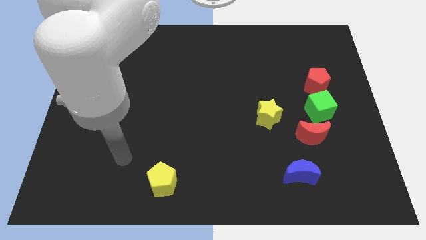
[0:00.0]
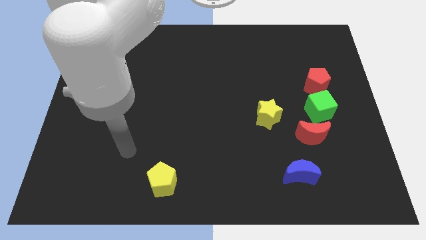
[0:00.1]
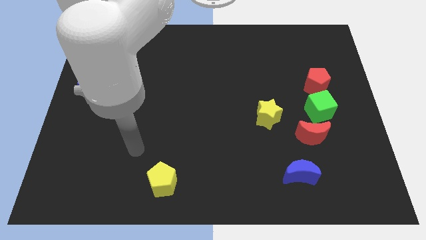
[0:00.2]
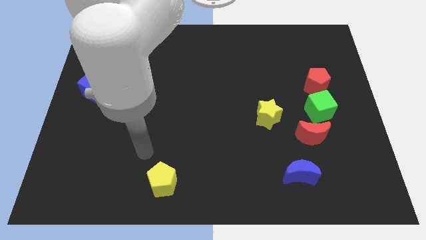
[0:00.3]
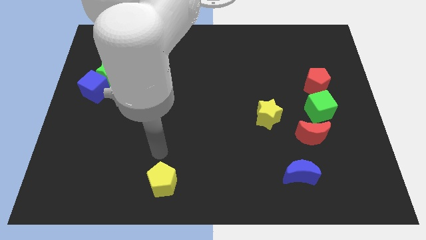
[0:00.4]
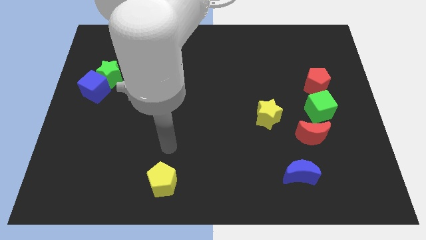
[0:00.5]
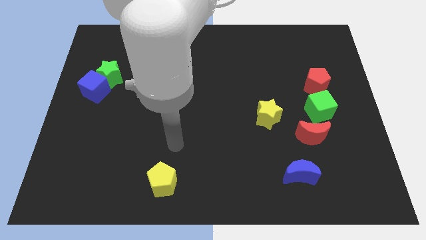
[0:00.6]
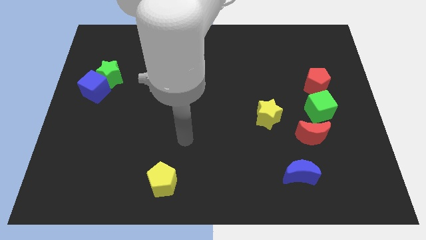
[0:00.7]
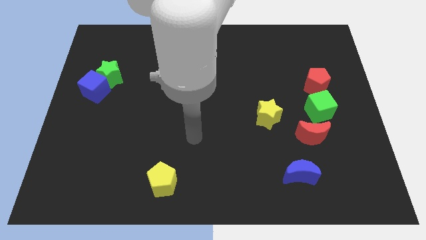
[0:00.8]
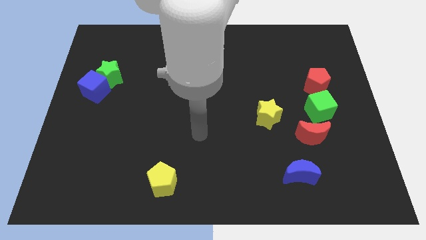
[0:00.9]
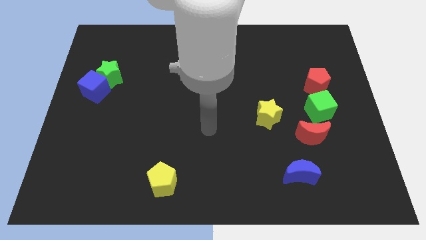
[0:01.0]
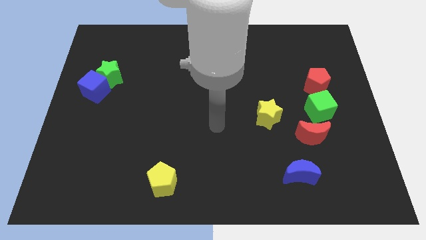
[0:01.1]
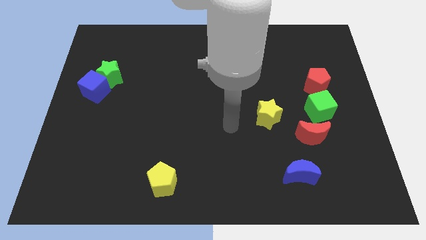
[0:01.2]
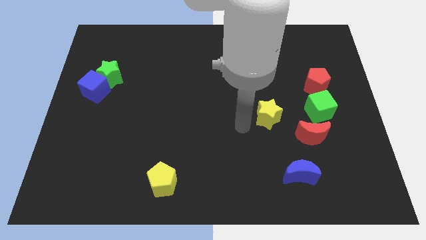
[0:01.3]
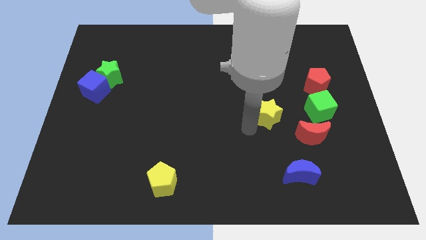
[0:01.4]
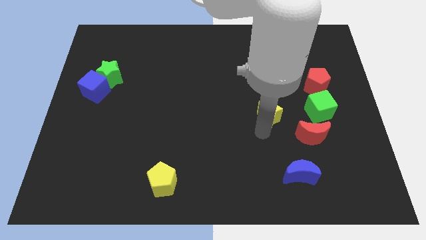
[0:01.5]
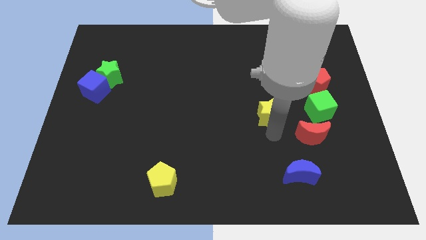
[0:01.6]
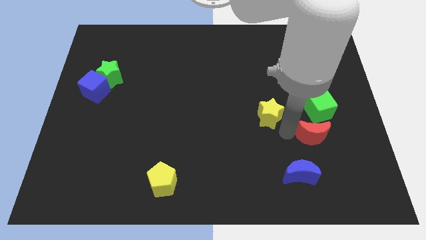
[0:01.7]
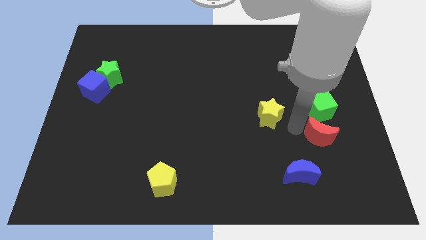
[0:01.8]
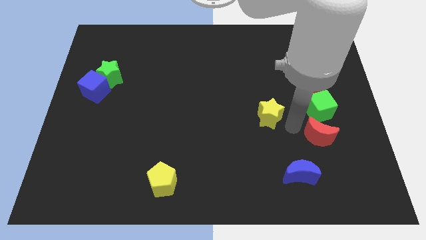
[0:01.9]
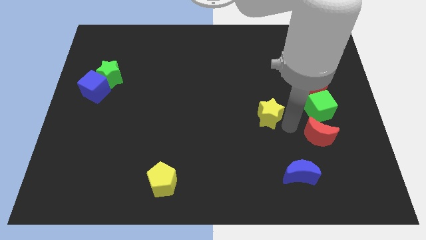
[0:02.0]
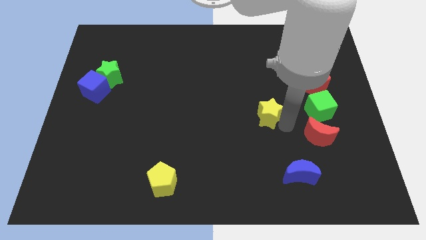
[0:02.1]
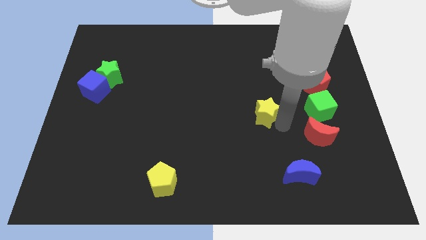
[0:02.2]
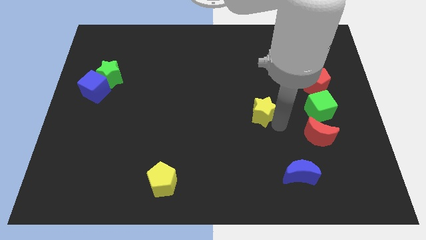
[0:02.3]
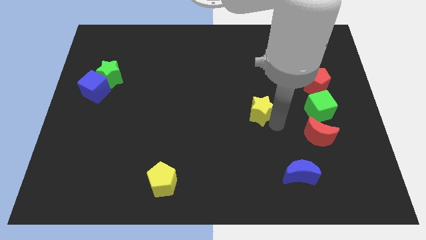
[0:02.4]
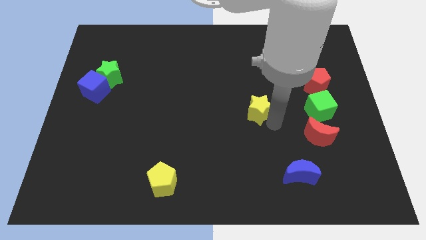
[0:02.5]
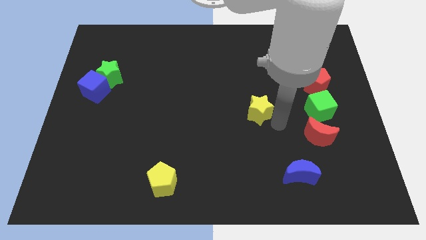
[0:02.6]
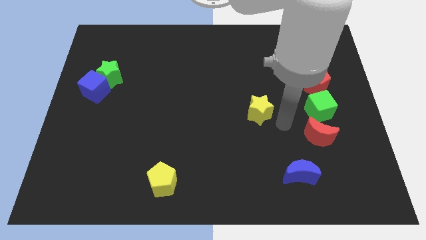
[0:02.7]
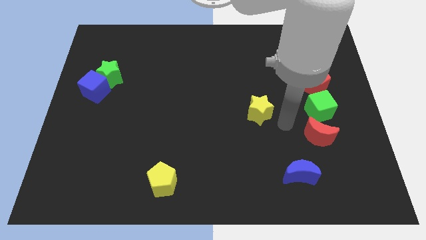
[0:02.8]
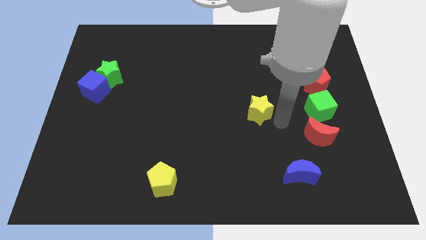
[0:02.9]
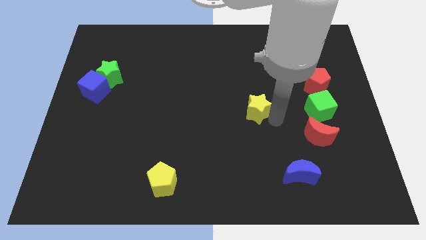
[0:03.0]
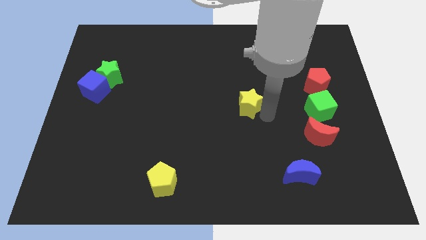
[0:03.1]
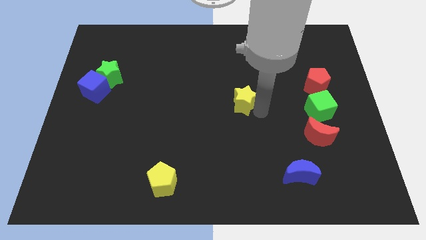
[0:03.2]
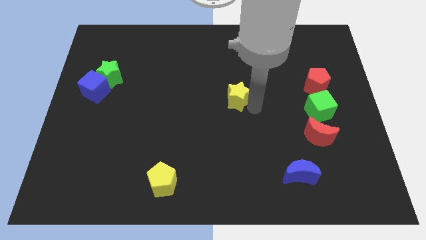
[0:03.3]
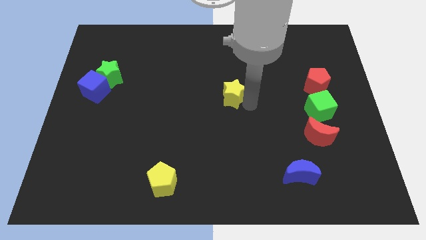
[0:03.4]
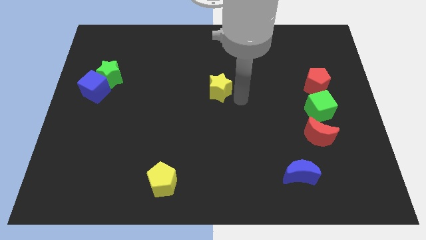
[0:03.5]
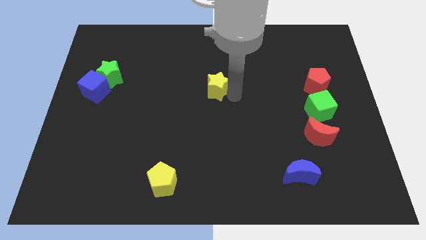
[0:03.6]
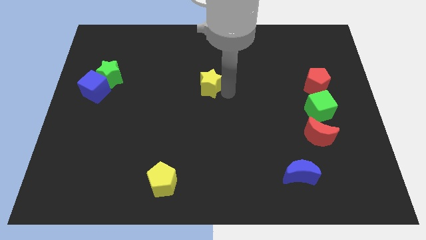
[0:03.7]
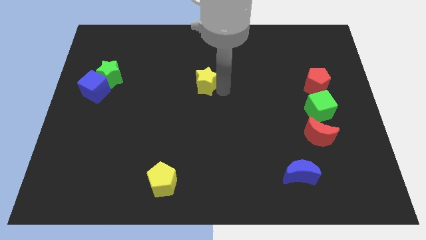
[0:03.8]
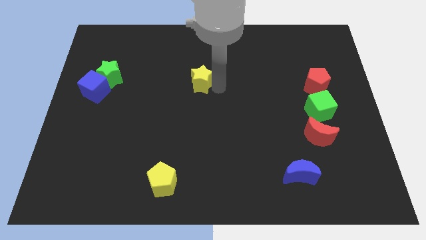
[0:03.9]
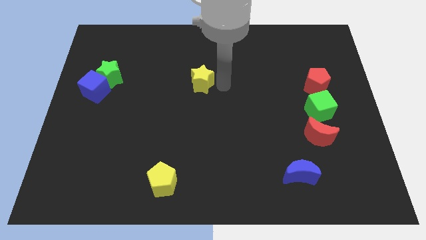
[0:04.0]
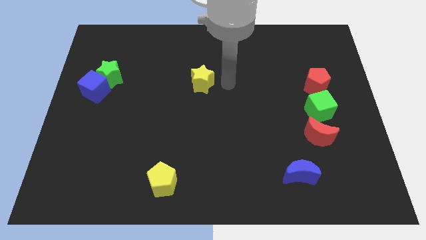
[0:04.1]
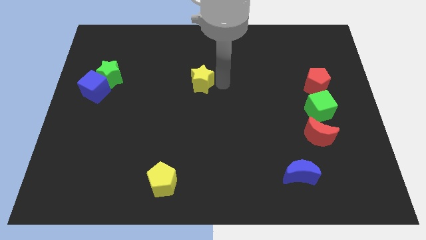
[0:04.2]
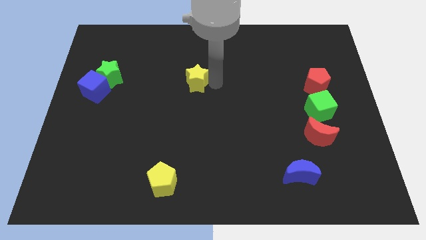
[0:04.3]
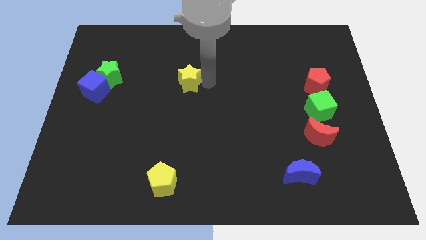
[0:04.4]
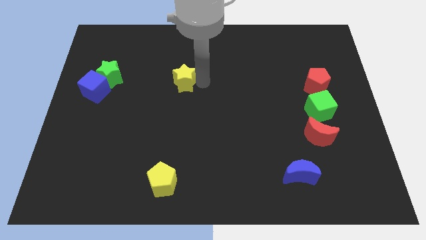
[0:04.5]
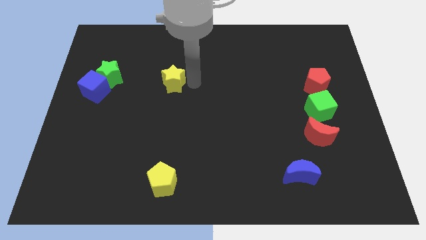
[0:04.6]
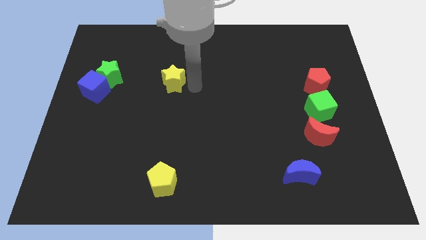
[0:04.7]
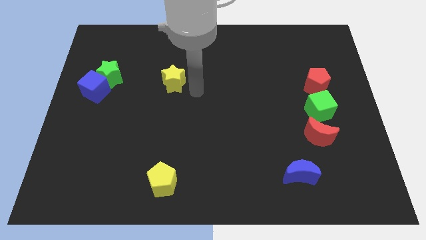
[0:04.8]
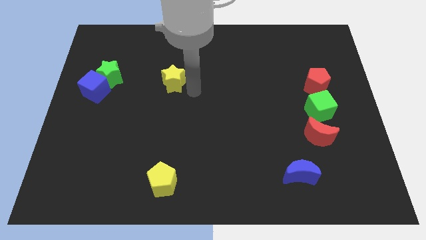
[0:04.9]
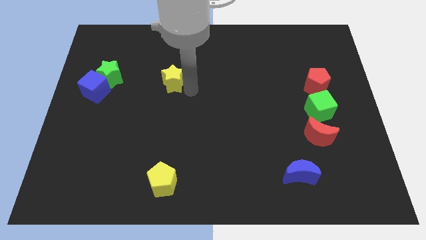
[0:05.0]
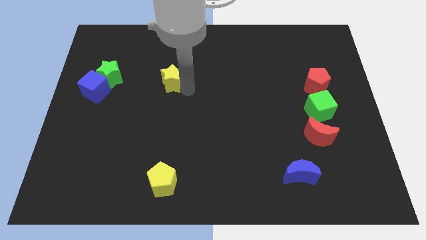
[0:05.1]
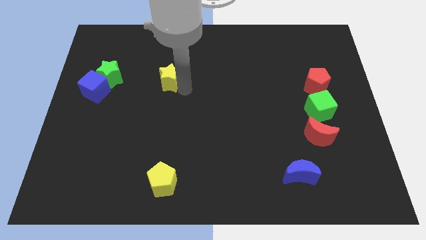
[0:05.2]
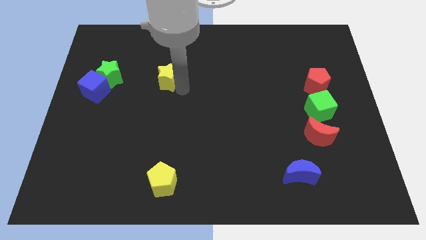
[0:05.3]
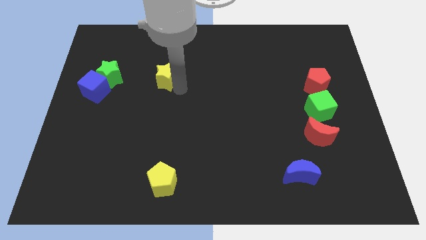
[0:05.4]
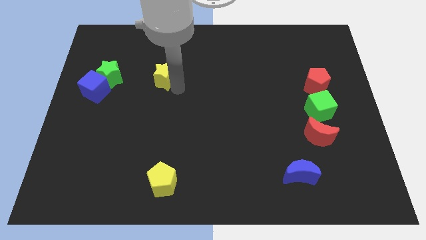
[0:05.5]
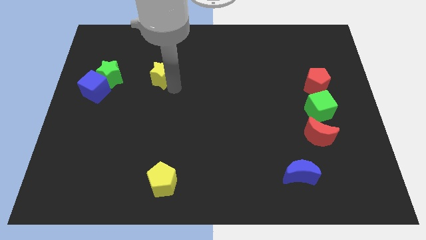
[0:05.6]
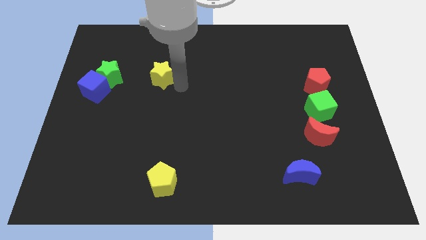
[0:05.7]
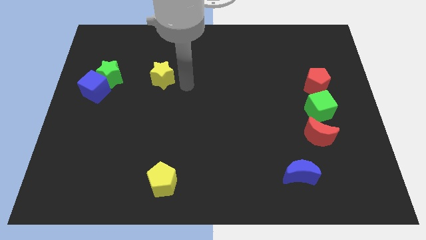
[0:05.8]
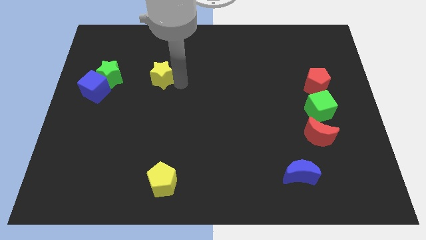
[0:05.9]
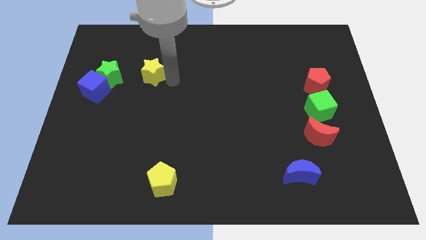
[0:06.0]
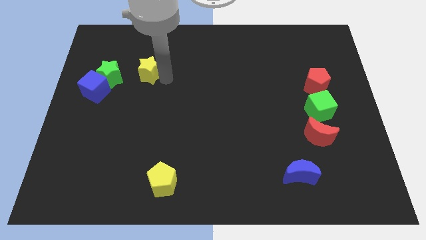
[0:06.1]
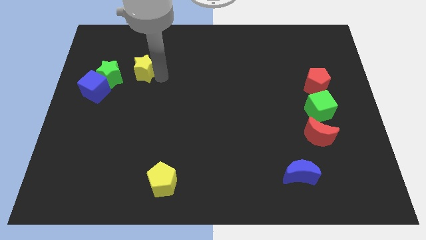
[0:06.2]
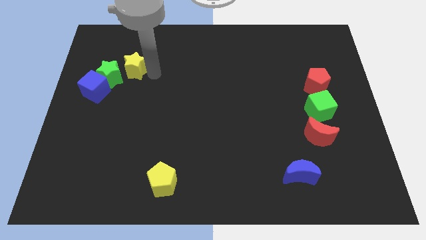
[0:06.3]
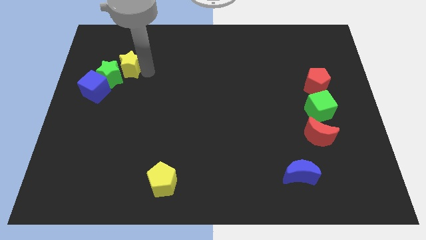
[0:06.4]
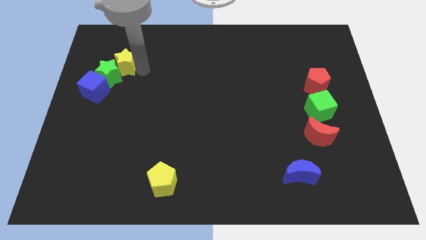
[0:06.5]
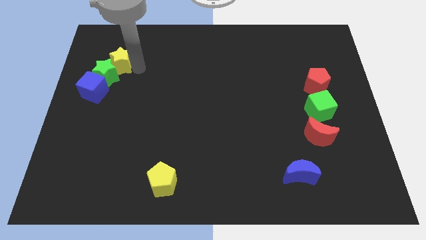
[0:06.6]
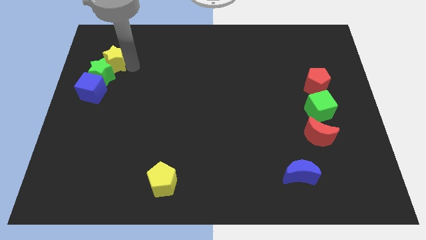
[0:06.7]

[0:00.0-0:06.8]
push the yellow star above the blue cube
